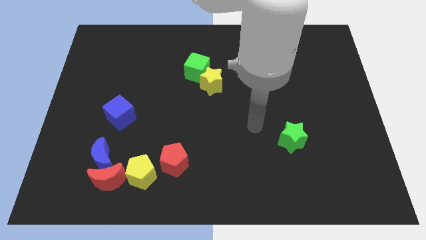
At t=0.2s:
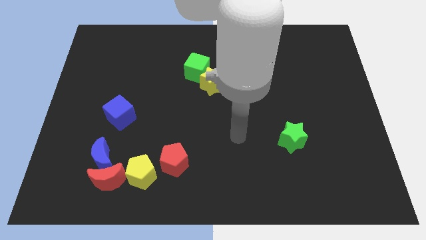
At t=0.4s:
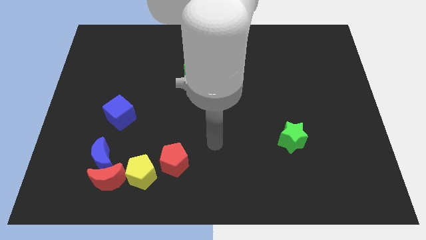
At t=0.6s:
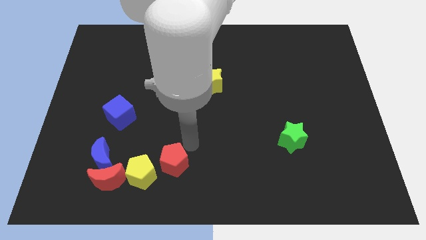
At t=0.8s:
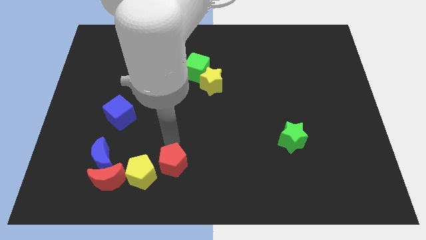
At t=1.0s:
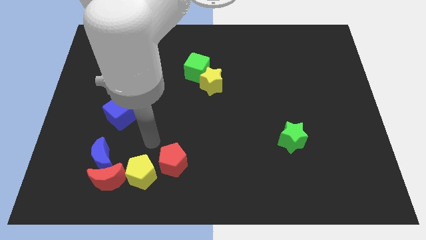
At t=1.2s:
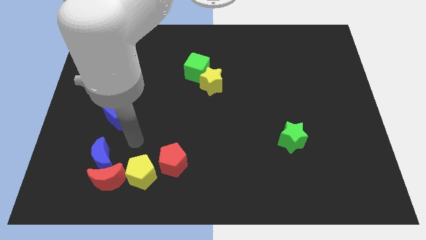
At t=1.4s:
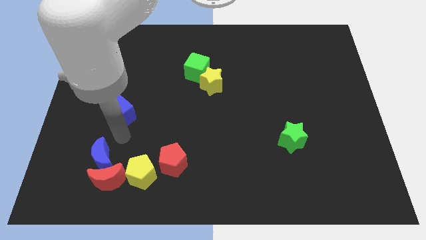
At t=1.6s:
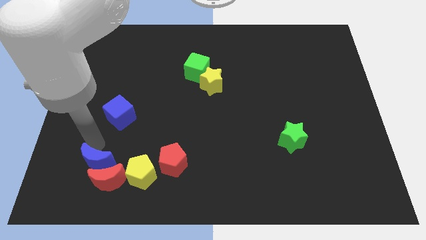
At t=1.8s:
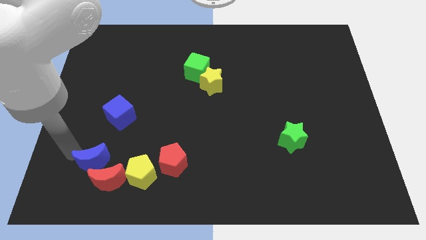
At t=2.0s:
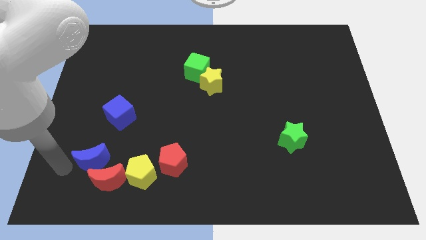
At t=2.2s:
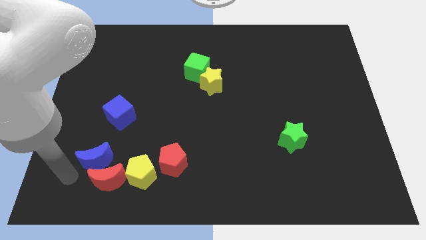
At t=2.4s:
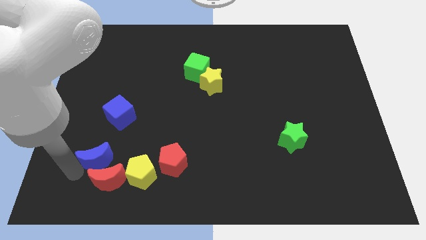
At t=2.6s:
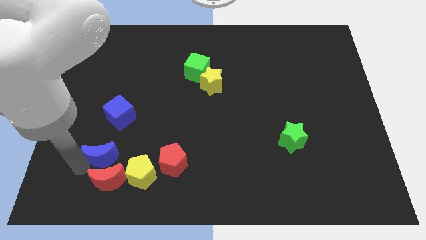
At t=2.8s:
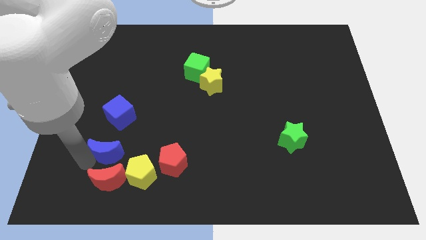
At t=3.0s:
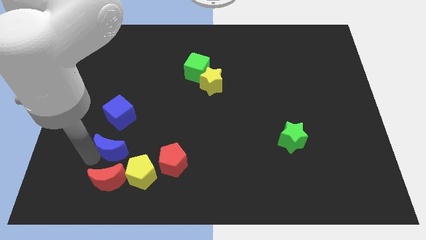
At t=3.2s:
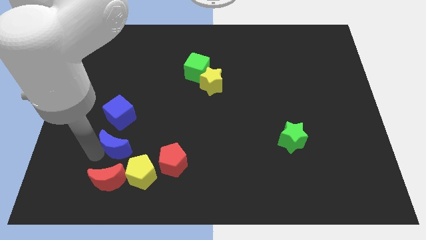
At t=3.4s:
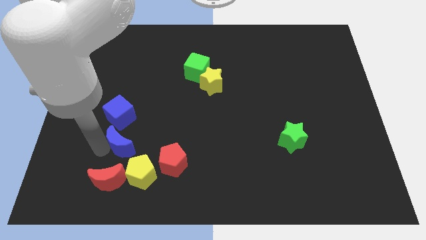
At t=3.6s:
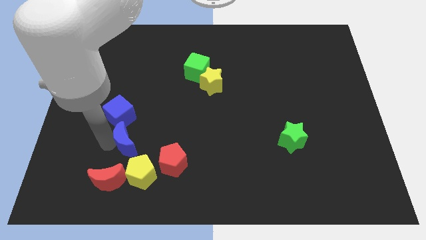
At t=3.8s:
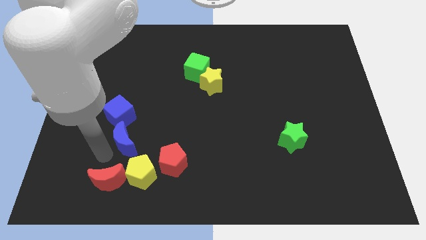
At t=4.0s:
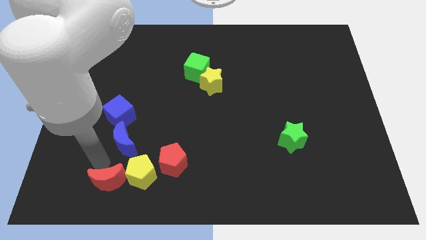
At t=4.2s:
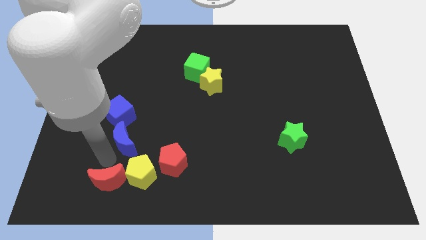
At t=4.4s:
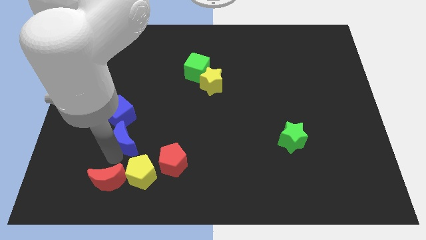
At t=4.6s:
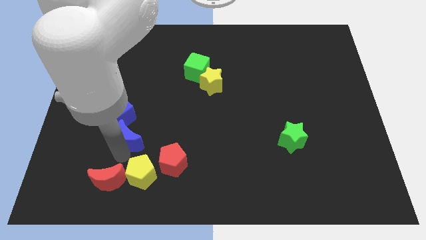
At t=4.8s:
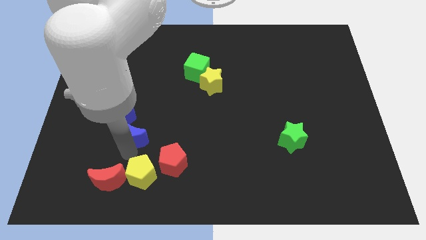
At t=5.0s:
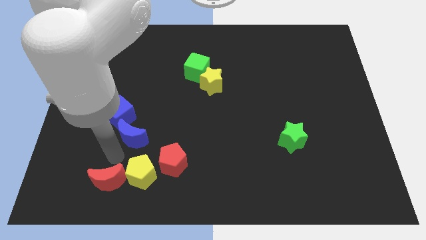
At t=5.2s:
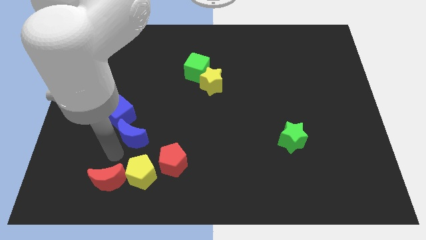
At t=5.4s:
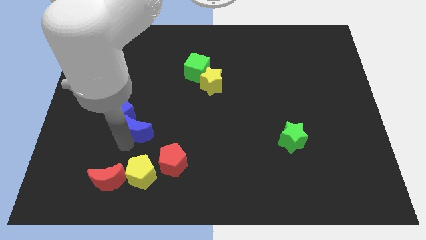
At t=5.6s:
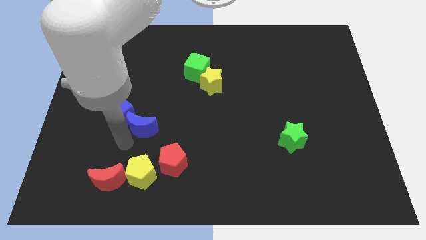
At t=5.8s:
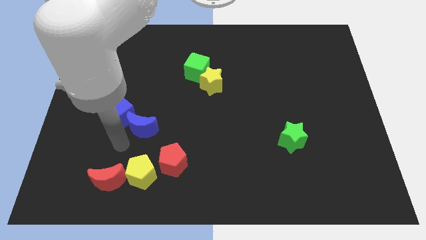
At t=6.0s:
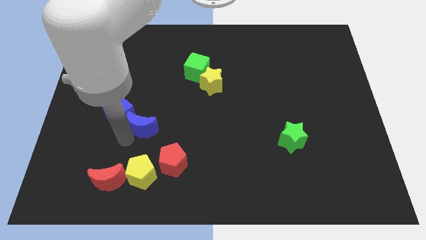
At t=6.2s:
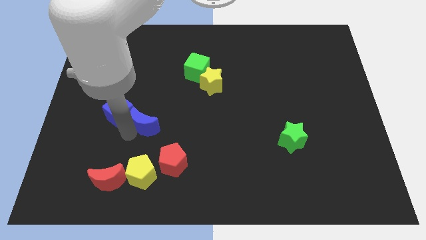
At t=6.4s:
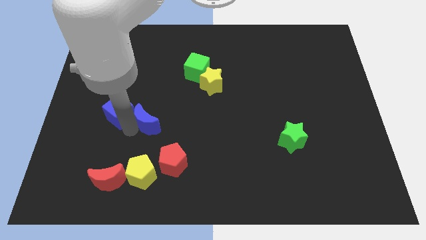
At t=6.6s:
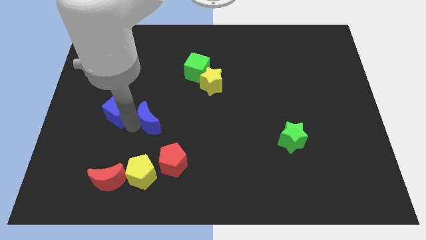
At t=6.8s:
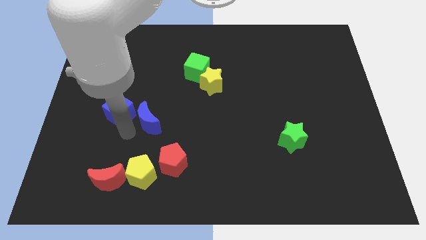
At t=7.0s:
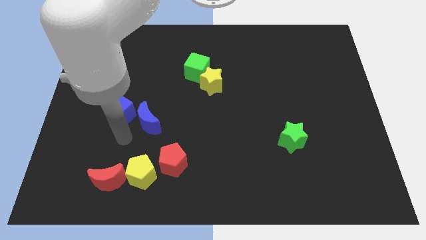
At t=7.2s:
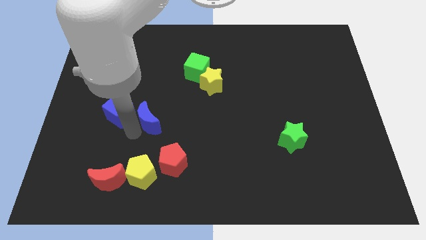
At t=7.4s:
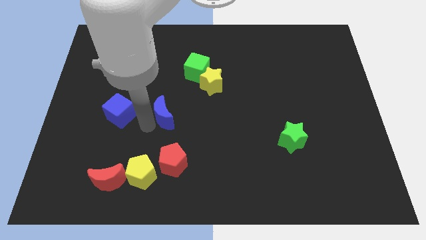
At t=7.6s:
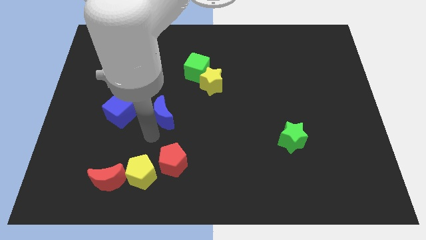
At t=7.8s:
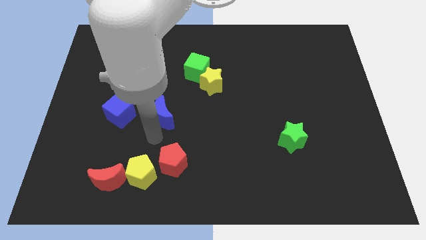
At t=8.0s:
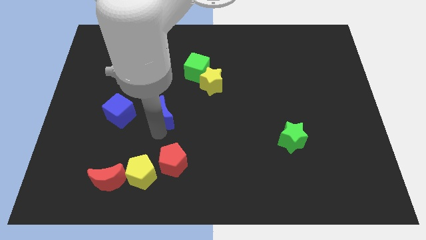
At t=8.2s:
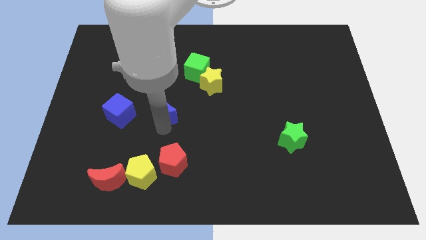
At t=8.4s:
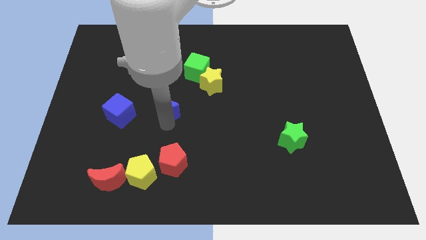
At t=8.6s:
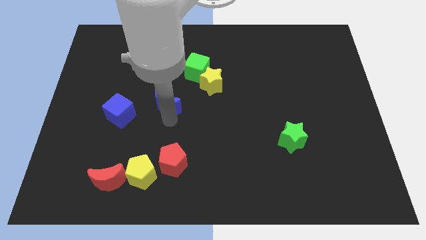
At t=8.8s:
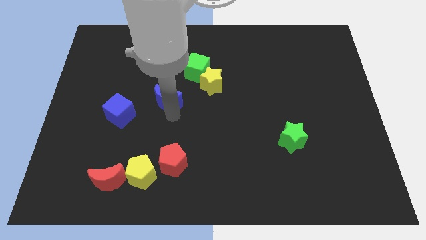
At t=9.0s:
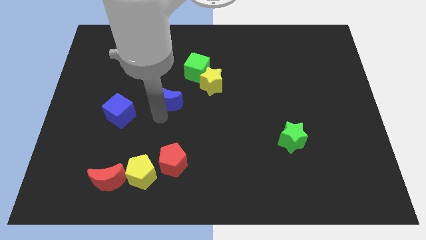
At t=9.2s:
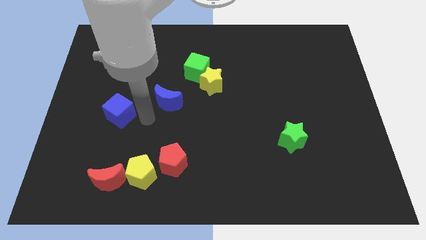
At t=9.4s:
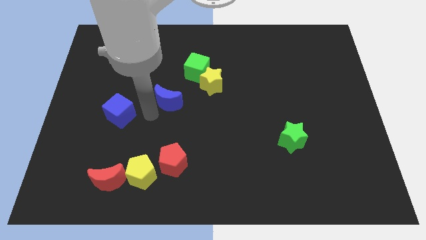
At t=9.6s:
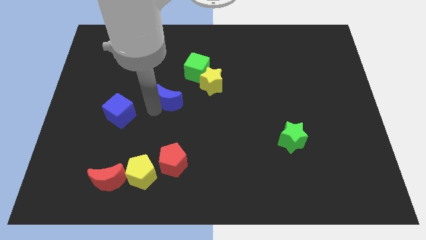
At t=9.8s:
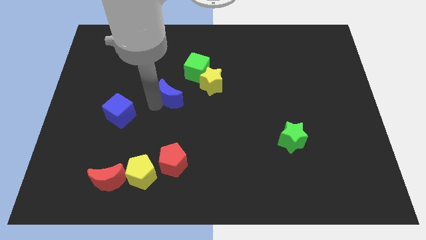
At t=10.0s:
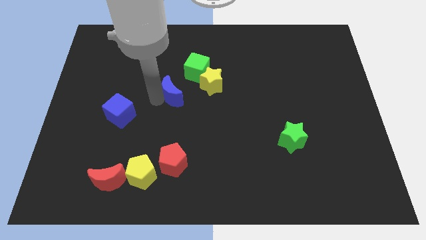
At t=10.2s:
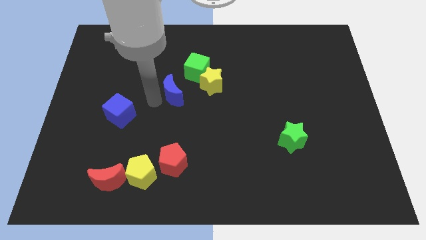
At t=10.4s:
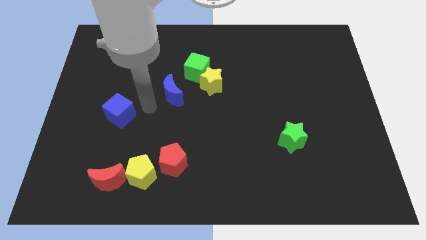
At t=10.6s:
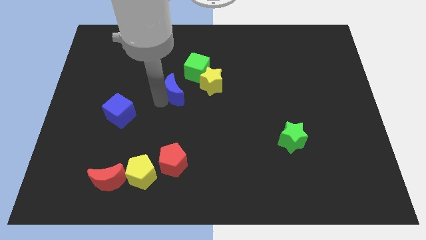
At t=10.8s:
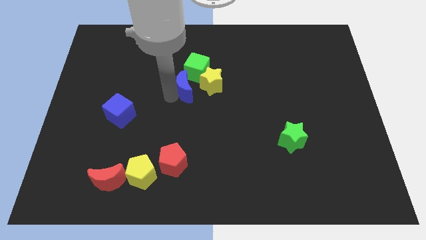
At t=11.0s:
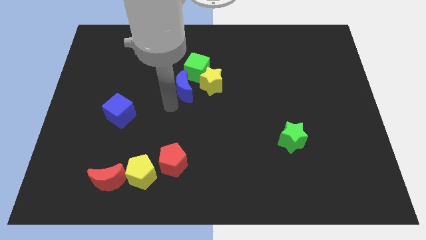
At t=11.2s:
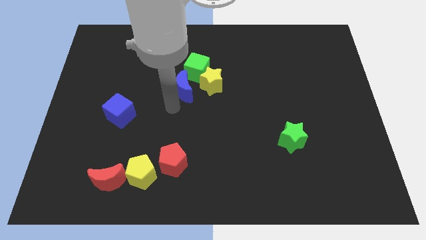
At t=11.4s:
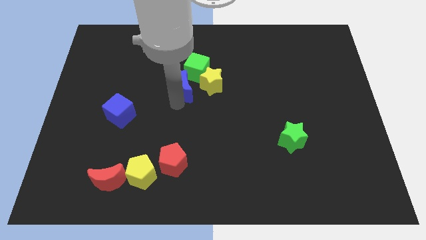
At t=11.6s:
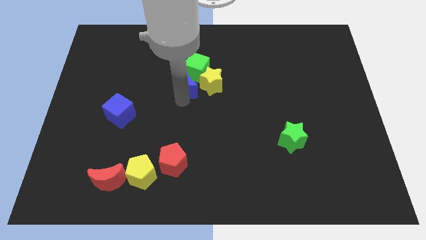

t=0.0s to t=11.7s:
put the blue moon close to the green cube

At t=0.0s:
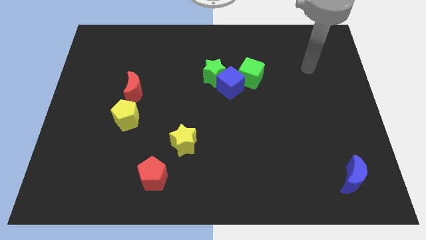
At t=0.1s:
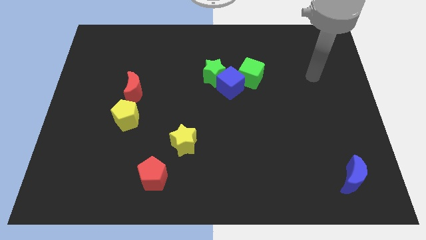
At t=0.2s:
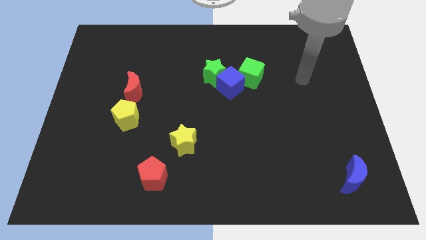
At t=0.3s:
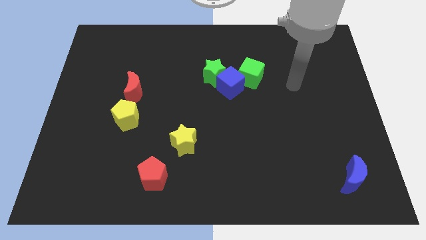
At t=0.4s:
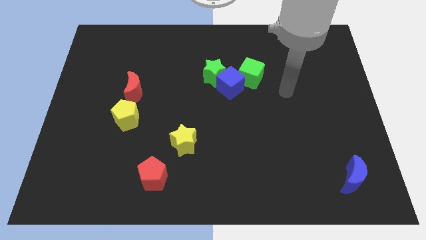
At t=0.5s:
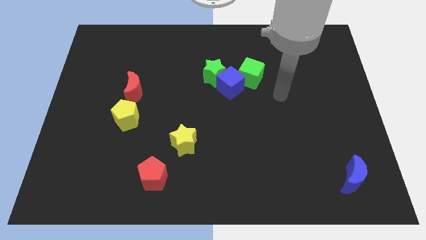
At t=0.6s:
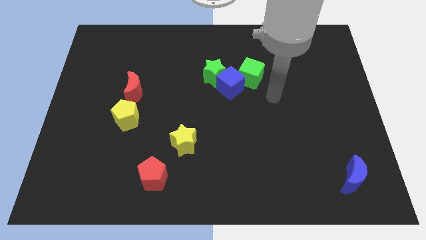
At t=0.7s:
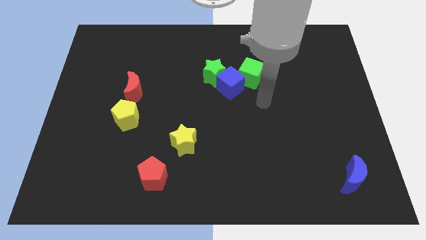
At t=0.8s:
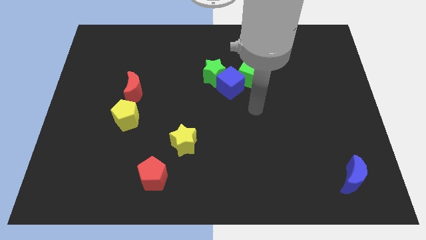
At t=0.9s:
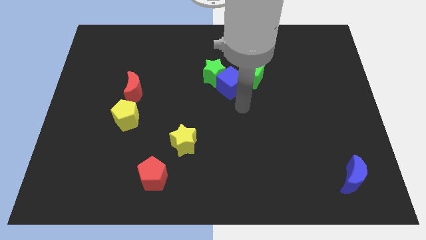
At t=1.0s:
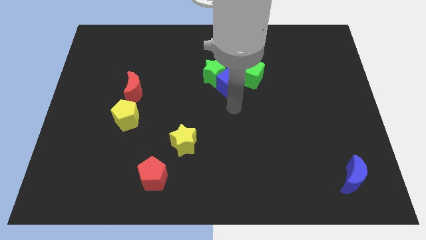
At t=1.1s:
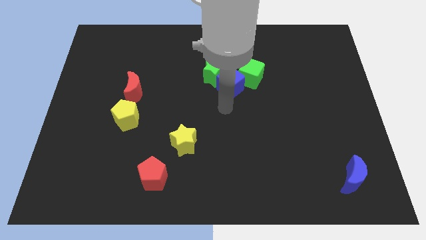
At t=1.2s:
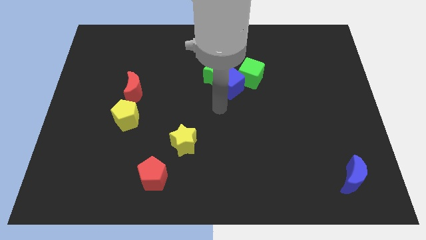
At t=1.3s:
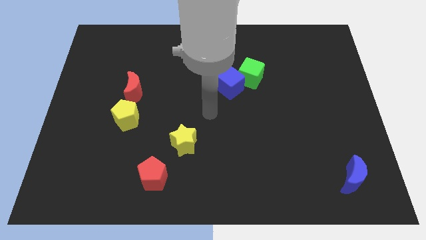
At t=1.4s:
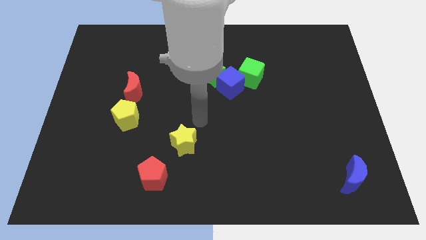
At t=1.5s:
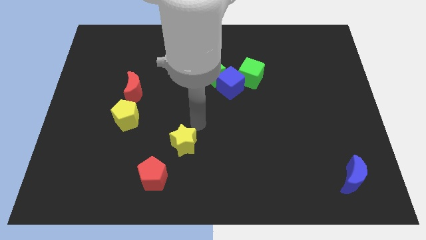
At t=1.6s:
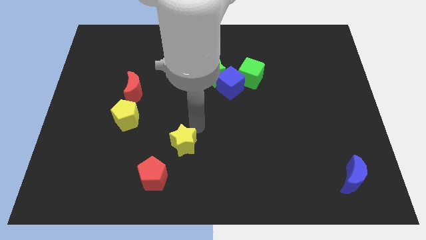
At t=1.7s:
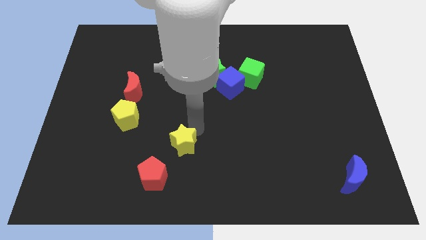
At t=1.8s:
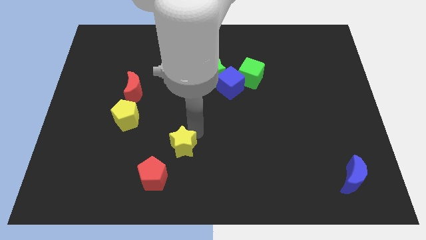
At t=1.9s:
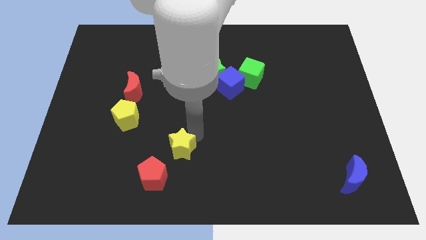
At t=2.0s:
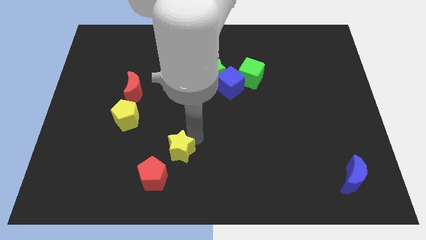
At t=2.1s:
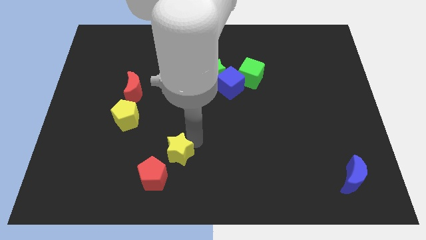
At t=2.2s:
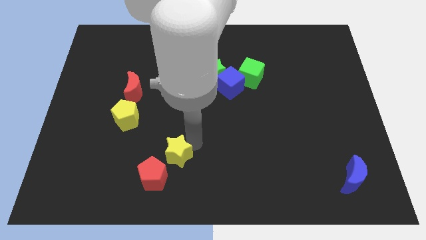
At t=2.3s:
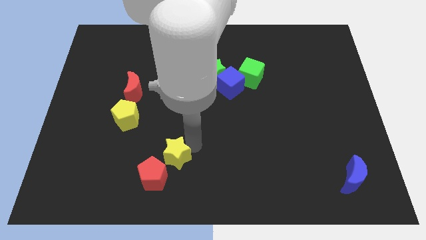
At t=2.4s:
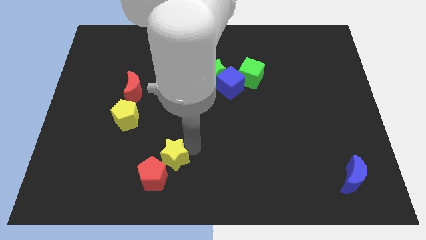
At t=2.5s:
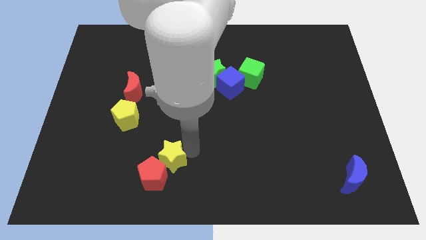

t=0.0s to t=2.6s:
push the yellow star towards the red pentagon
